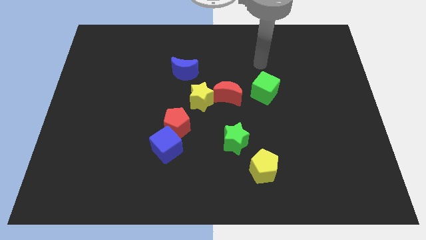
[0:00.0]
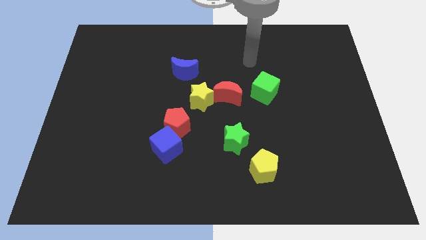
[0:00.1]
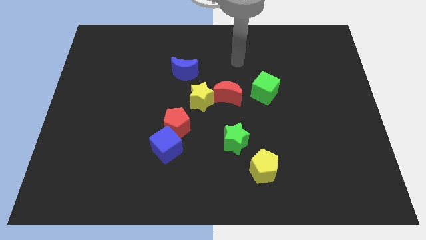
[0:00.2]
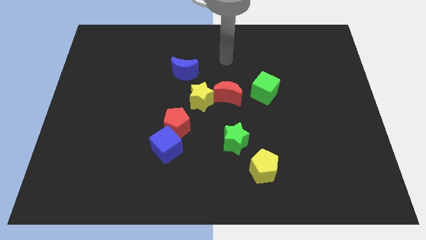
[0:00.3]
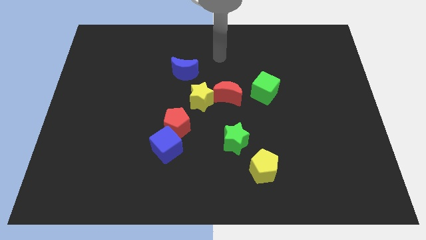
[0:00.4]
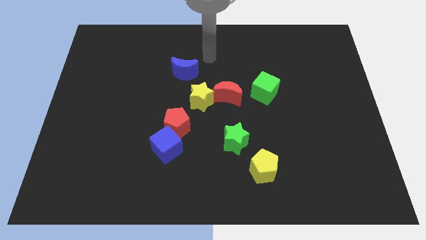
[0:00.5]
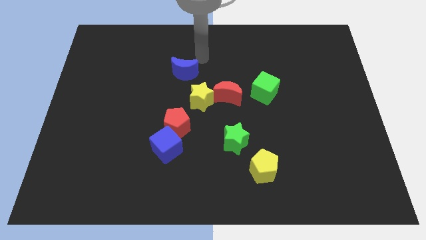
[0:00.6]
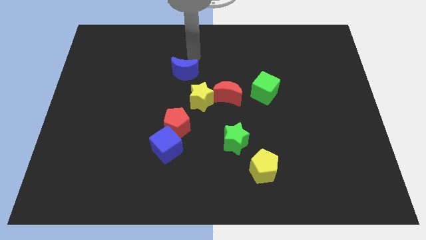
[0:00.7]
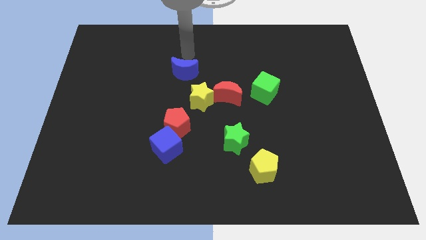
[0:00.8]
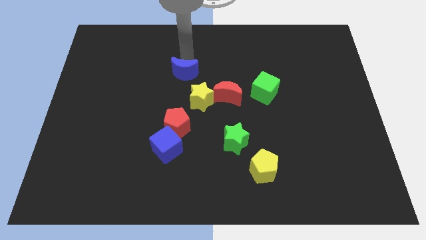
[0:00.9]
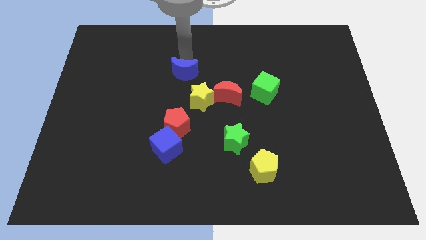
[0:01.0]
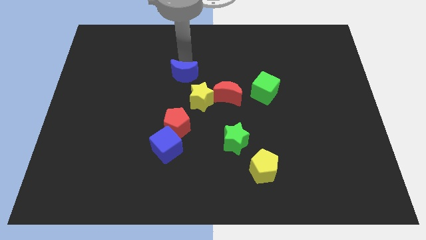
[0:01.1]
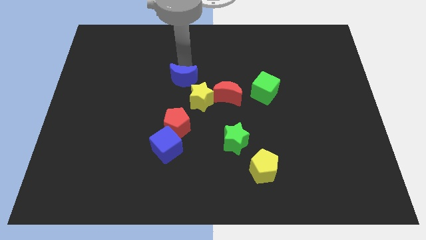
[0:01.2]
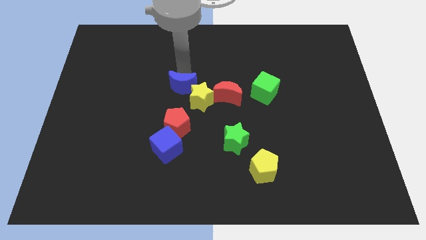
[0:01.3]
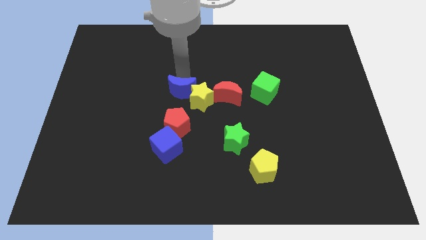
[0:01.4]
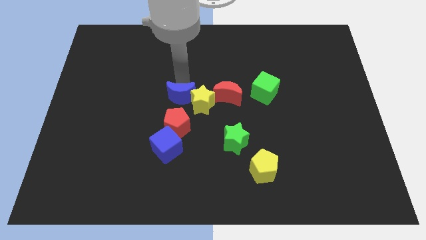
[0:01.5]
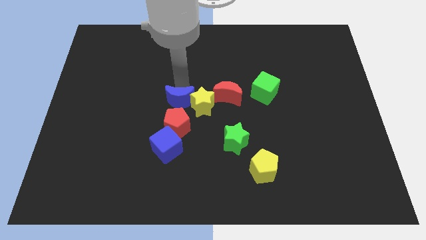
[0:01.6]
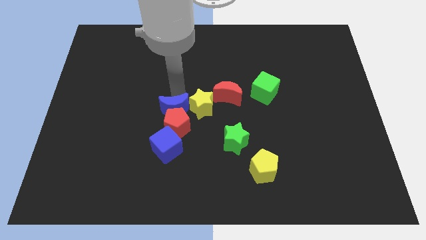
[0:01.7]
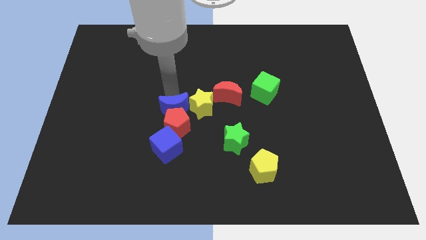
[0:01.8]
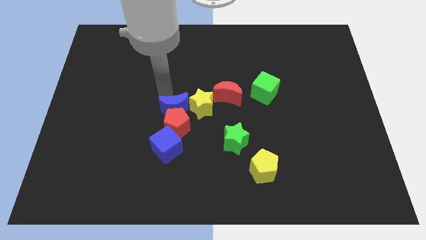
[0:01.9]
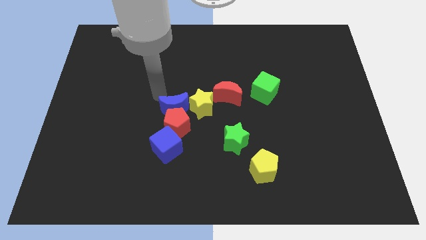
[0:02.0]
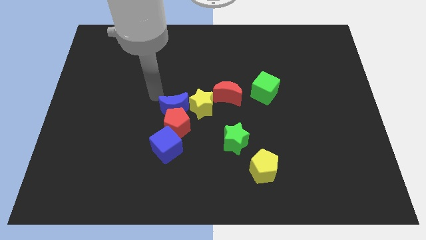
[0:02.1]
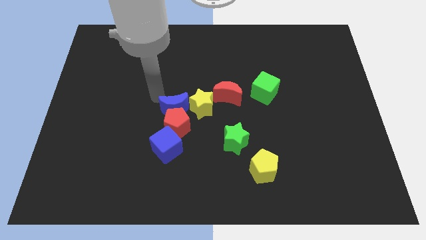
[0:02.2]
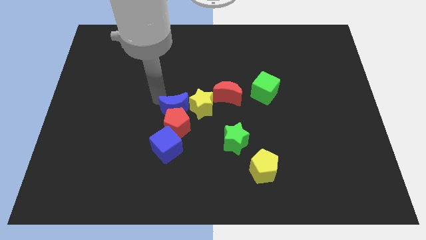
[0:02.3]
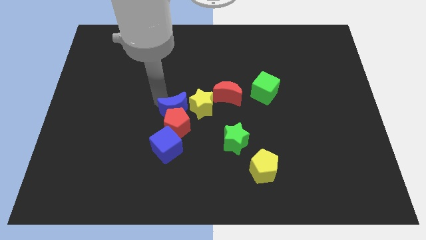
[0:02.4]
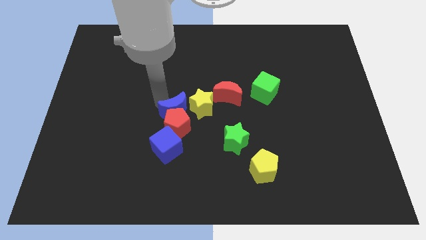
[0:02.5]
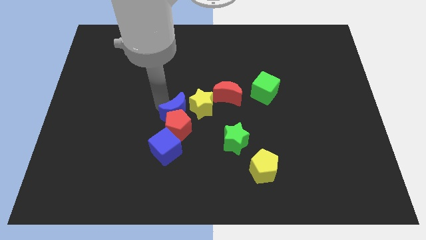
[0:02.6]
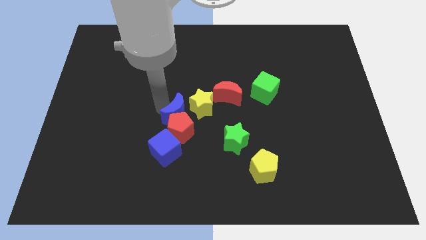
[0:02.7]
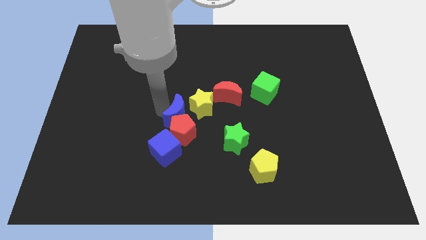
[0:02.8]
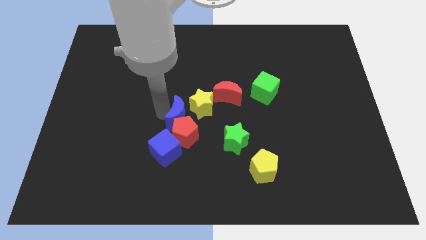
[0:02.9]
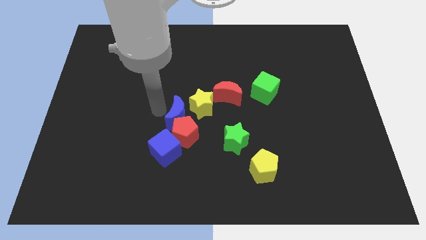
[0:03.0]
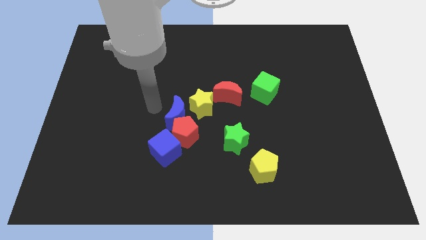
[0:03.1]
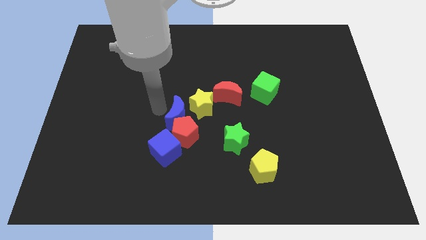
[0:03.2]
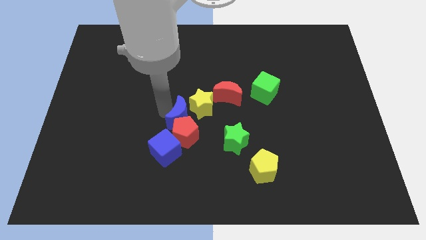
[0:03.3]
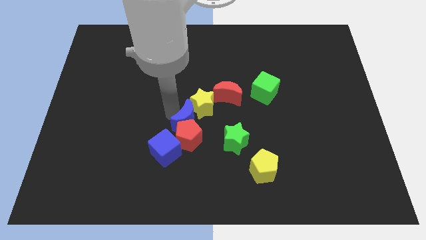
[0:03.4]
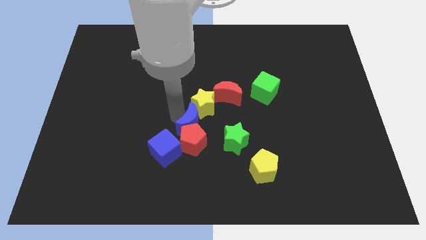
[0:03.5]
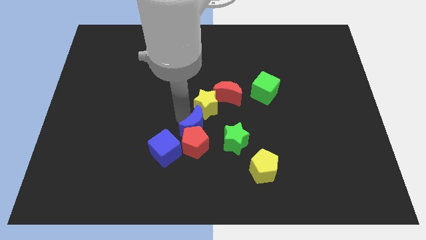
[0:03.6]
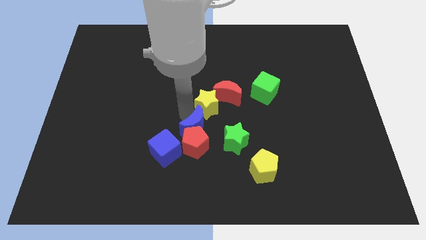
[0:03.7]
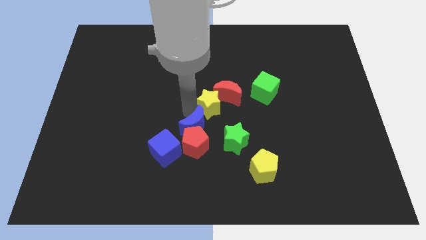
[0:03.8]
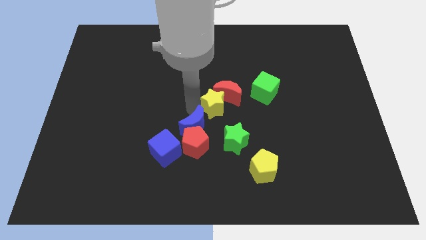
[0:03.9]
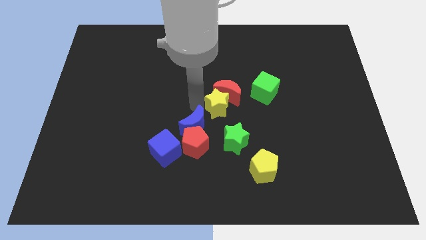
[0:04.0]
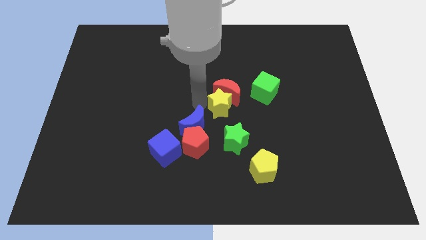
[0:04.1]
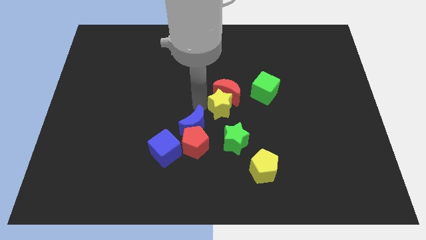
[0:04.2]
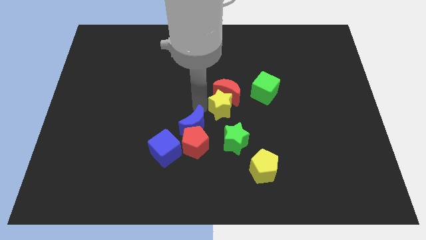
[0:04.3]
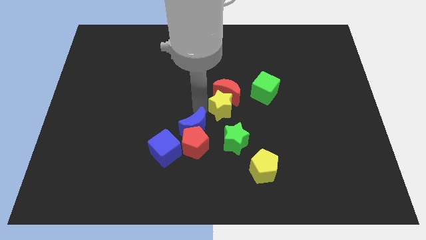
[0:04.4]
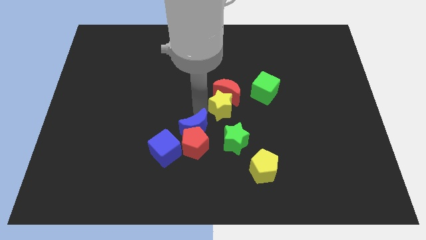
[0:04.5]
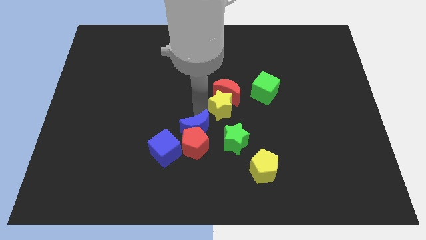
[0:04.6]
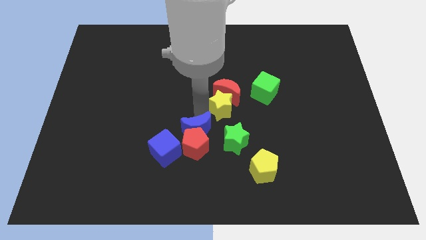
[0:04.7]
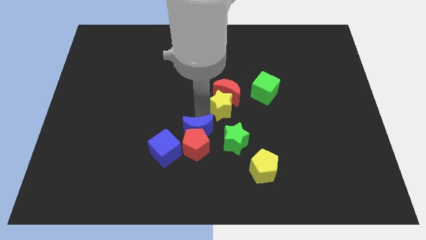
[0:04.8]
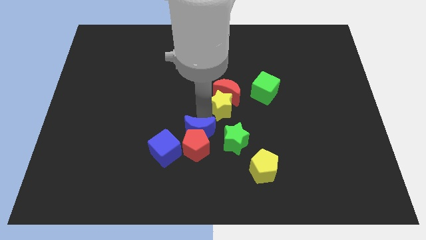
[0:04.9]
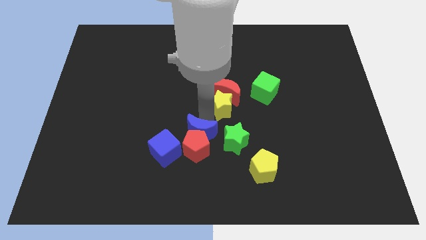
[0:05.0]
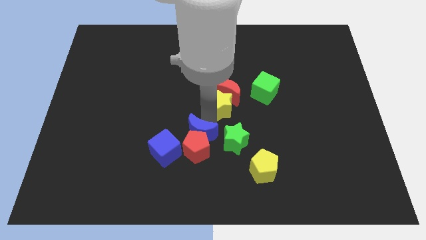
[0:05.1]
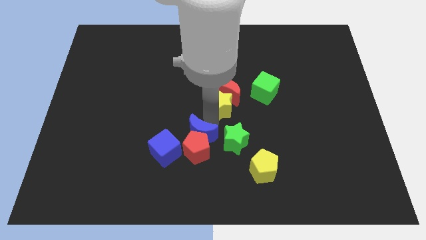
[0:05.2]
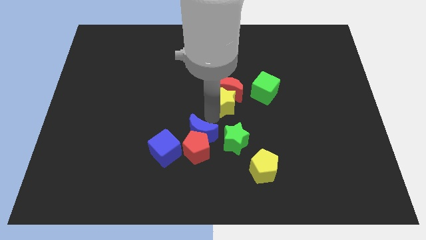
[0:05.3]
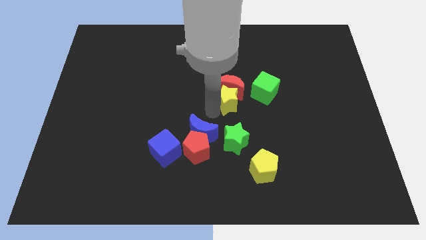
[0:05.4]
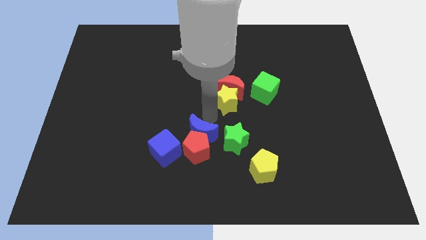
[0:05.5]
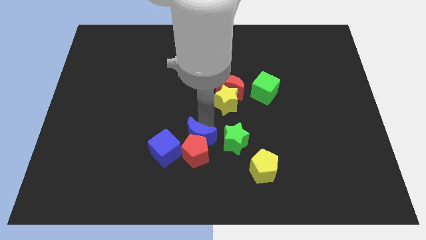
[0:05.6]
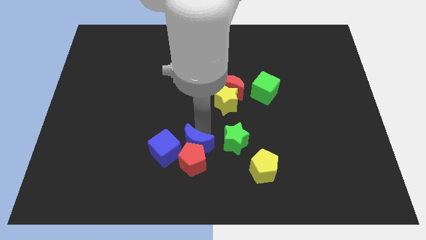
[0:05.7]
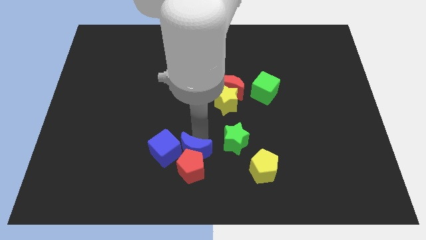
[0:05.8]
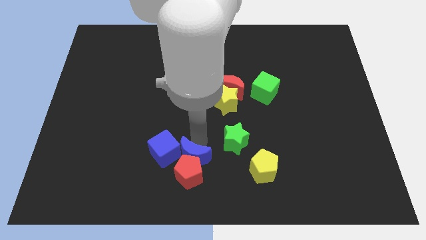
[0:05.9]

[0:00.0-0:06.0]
put the blue moon to the bottom side
